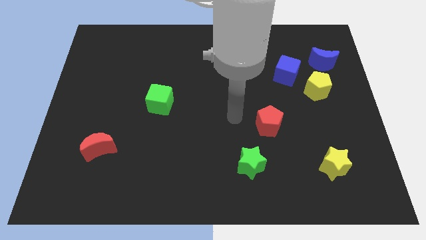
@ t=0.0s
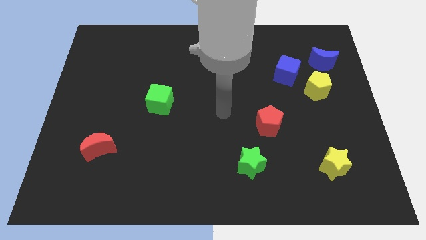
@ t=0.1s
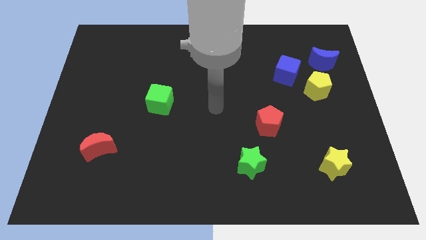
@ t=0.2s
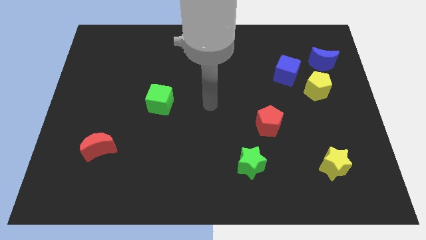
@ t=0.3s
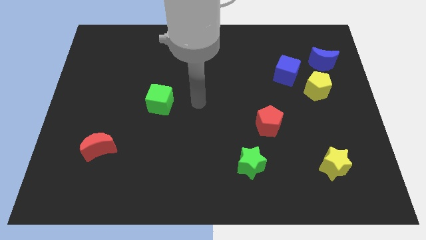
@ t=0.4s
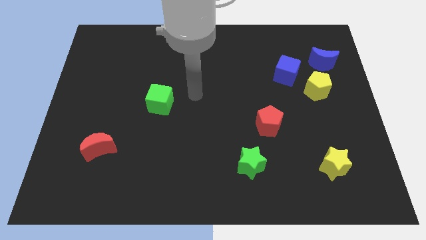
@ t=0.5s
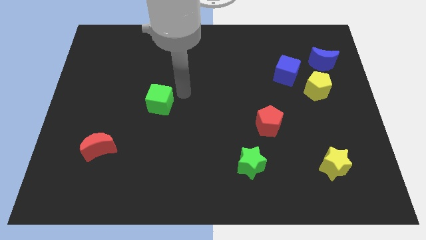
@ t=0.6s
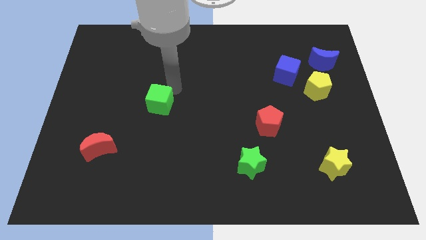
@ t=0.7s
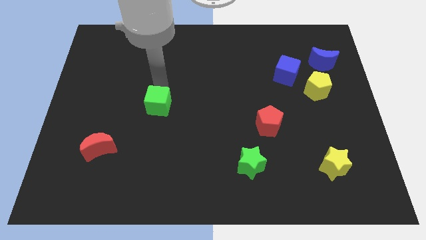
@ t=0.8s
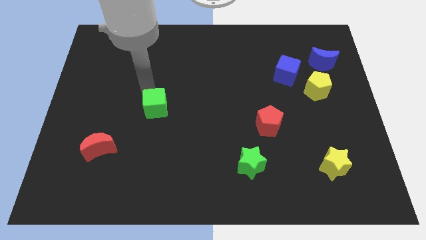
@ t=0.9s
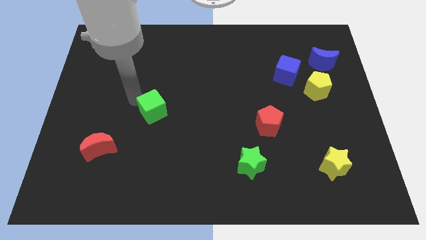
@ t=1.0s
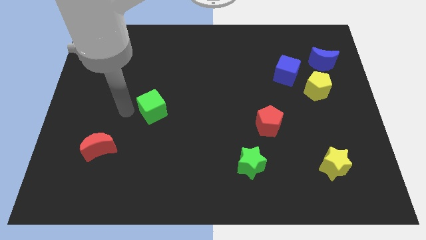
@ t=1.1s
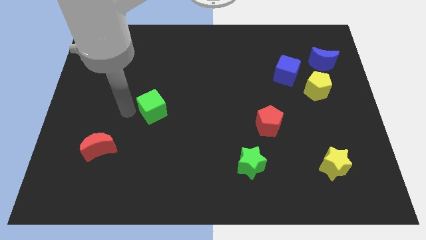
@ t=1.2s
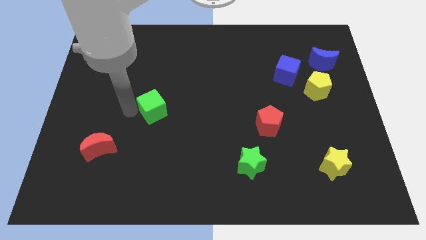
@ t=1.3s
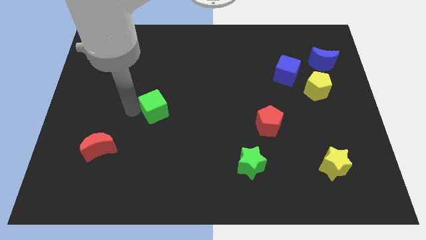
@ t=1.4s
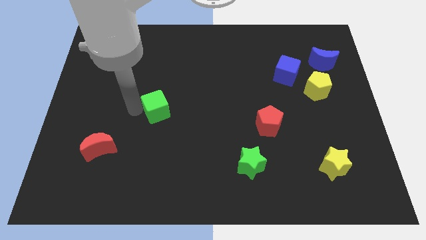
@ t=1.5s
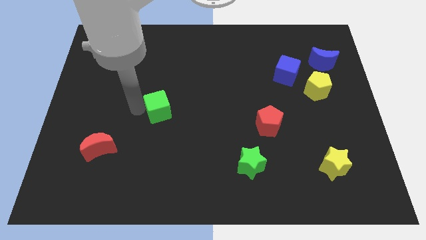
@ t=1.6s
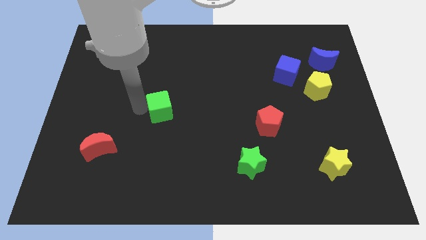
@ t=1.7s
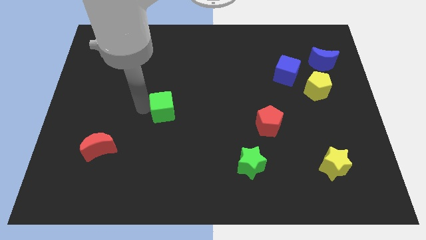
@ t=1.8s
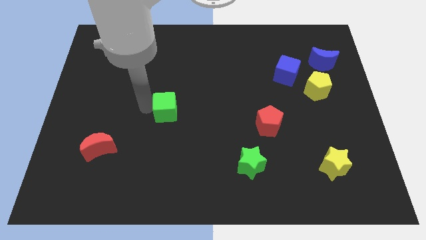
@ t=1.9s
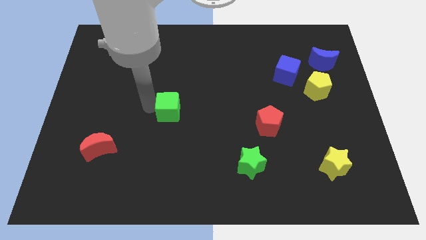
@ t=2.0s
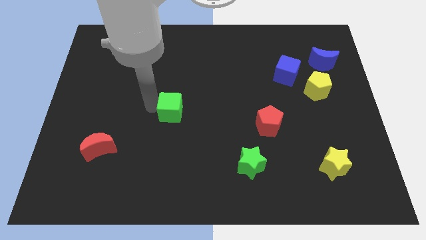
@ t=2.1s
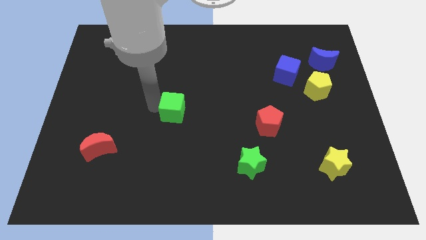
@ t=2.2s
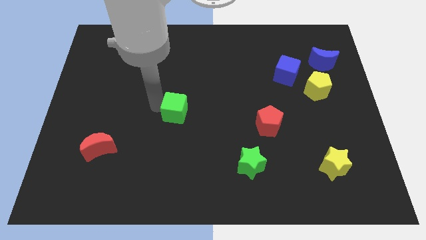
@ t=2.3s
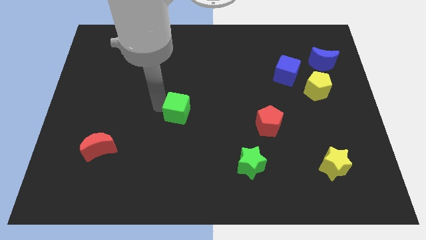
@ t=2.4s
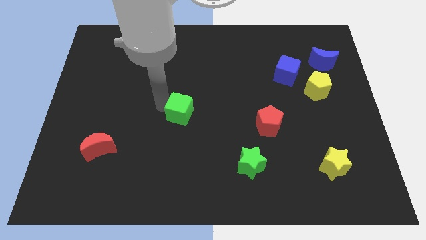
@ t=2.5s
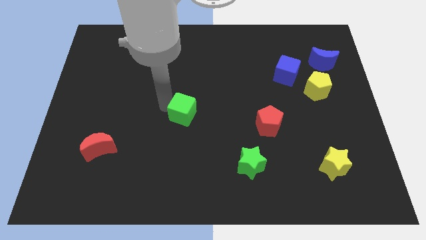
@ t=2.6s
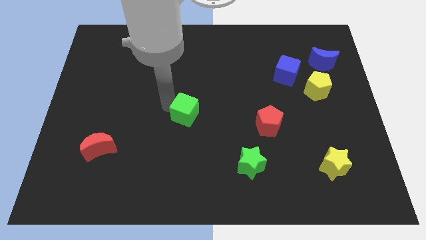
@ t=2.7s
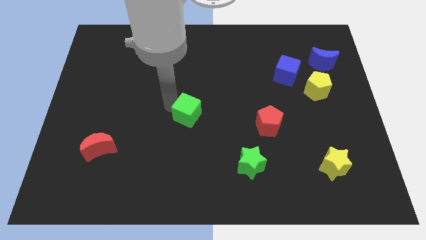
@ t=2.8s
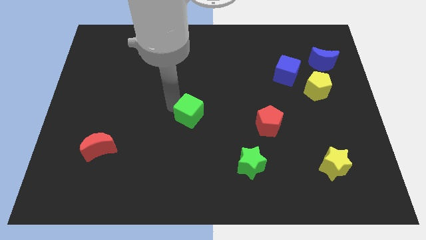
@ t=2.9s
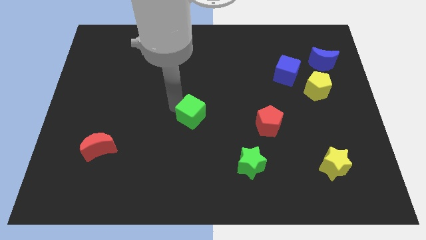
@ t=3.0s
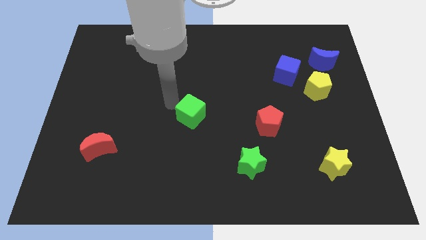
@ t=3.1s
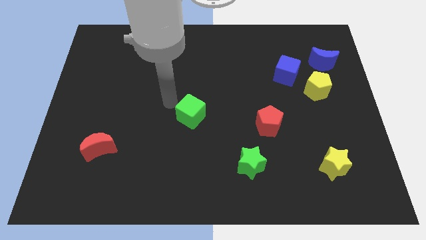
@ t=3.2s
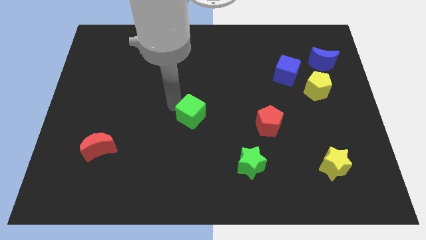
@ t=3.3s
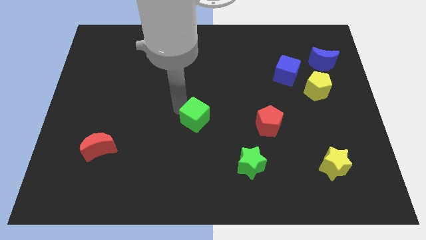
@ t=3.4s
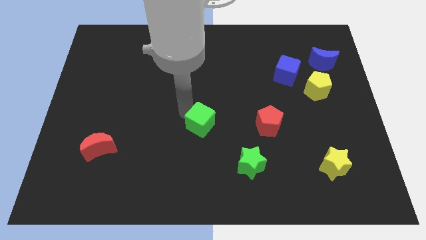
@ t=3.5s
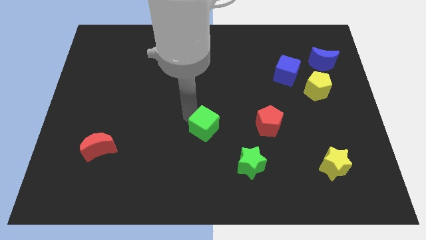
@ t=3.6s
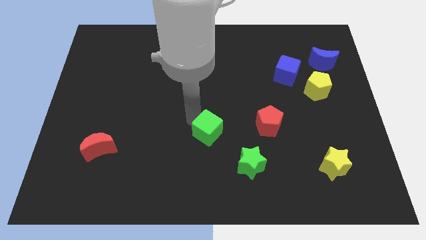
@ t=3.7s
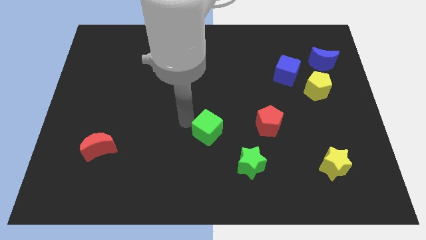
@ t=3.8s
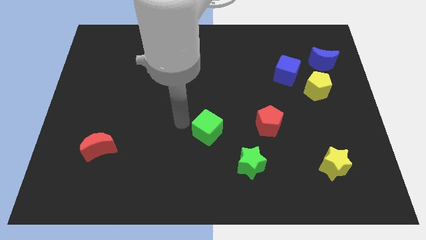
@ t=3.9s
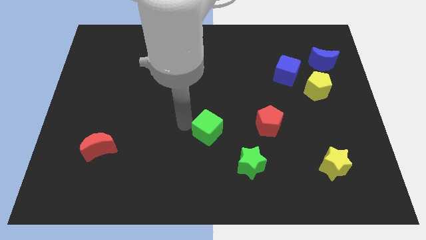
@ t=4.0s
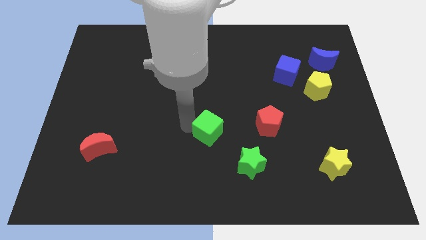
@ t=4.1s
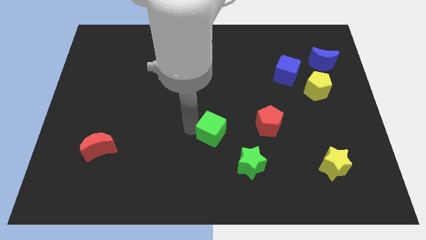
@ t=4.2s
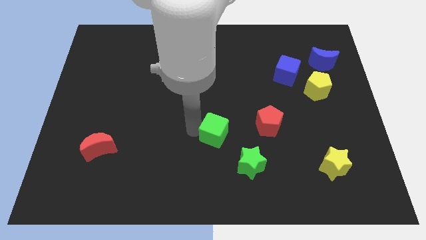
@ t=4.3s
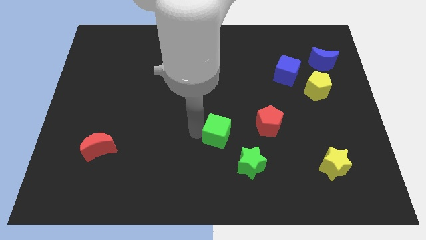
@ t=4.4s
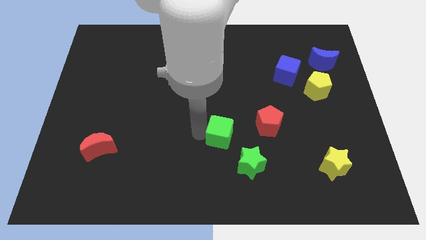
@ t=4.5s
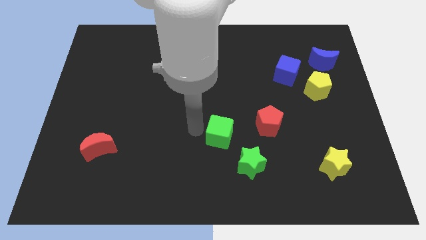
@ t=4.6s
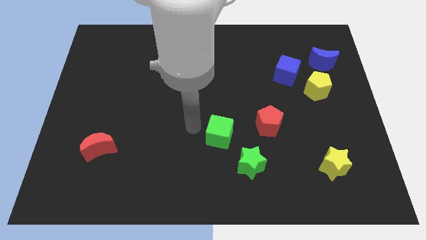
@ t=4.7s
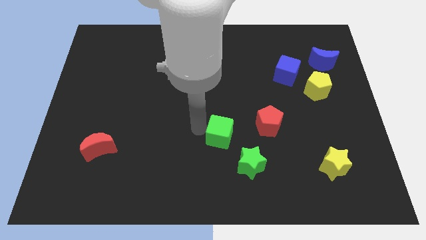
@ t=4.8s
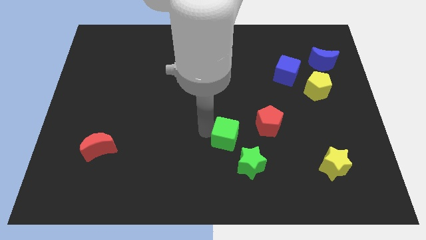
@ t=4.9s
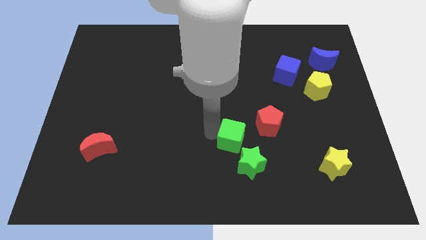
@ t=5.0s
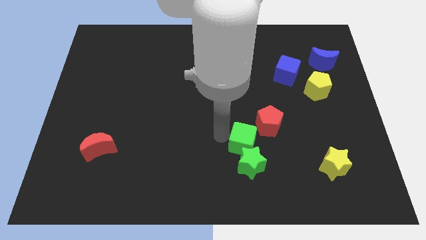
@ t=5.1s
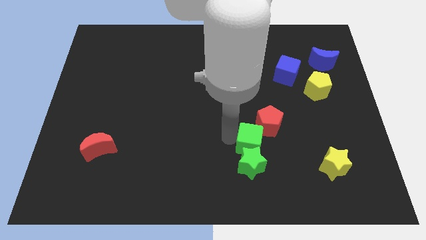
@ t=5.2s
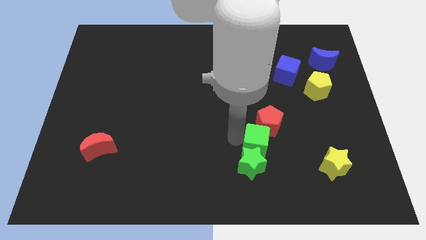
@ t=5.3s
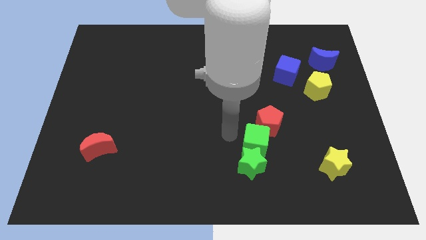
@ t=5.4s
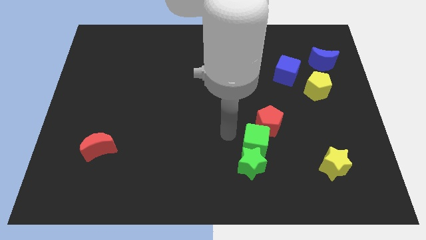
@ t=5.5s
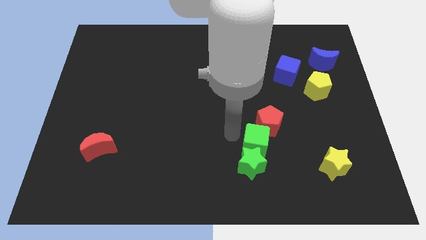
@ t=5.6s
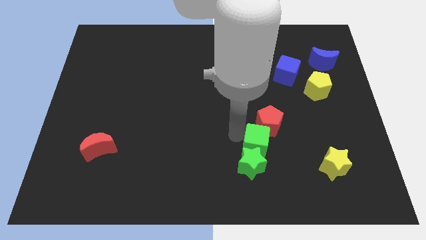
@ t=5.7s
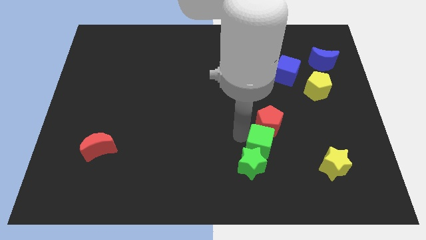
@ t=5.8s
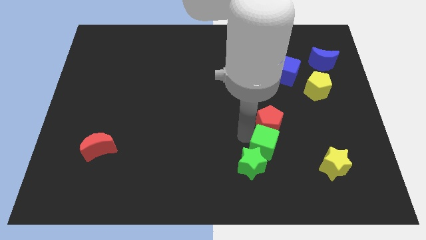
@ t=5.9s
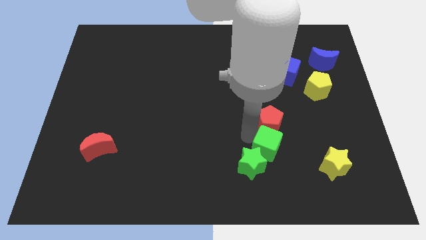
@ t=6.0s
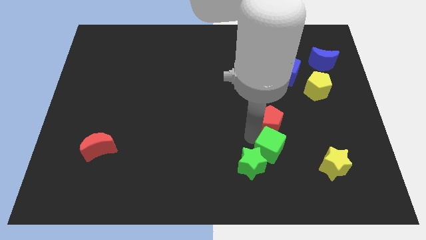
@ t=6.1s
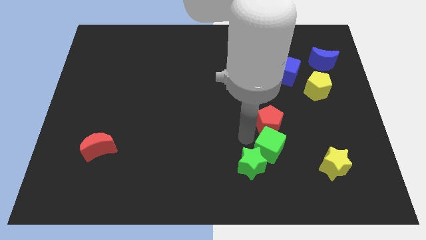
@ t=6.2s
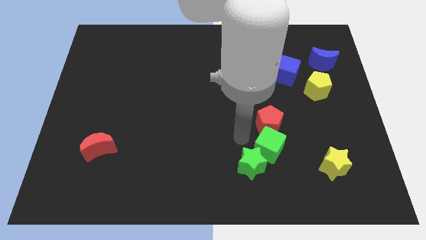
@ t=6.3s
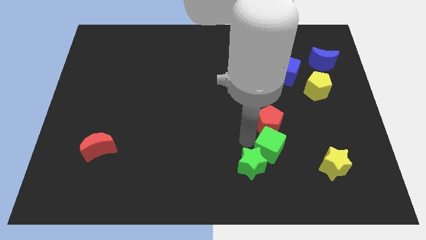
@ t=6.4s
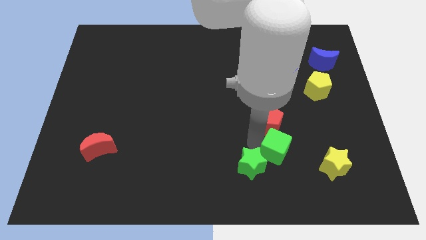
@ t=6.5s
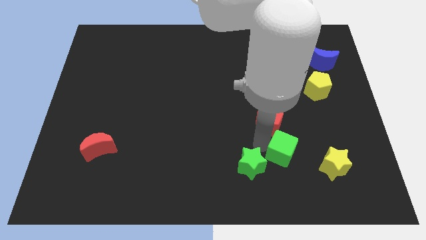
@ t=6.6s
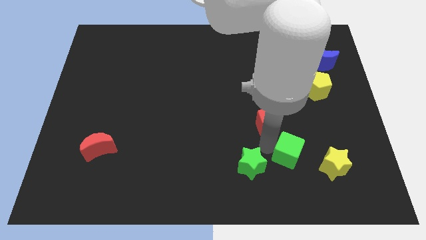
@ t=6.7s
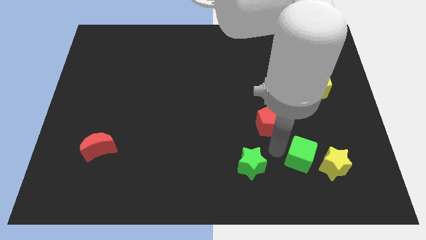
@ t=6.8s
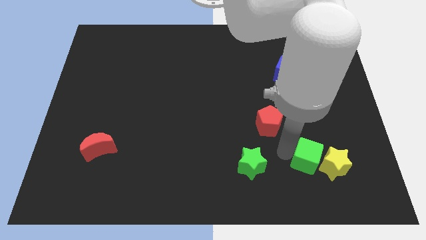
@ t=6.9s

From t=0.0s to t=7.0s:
move the green cube next to the yellow star

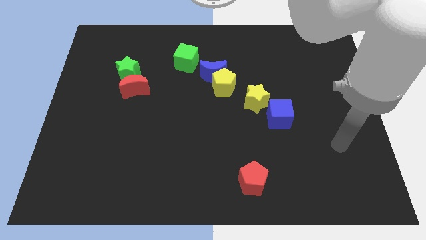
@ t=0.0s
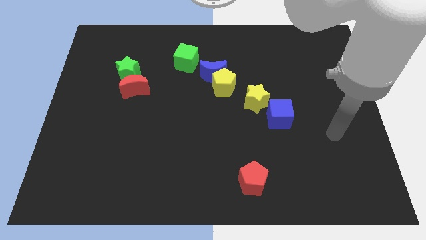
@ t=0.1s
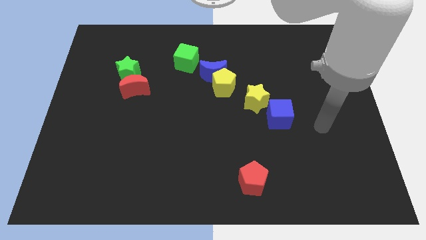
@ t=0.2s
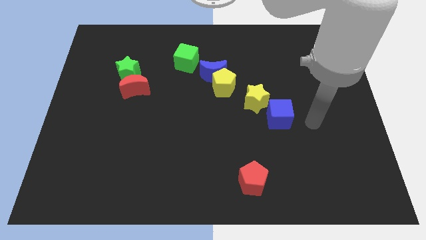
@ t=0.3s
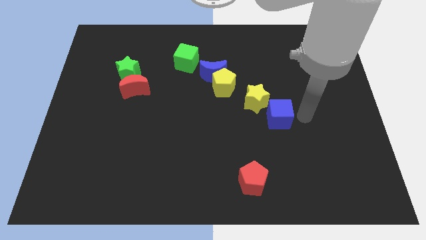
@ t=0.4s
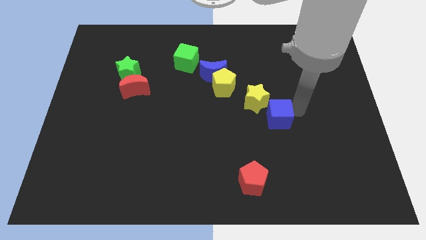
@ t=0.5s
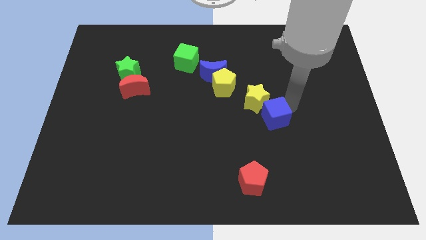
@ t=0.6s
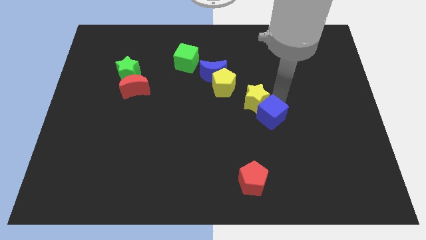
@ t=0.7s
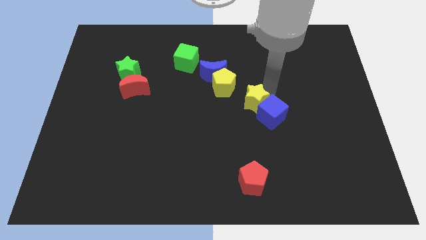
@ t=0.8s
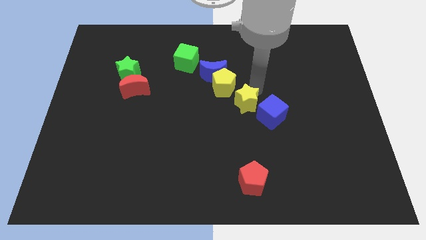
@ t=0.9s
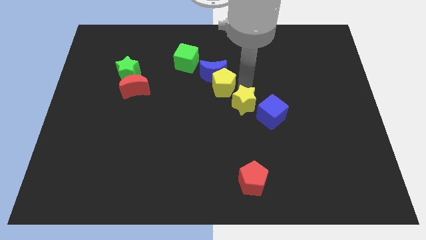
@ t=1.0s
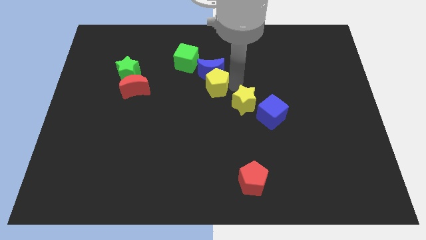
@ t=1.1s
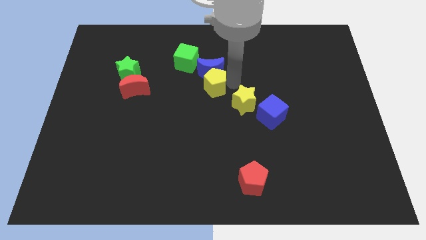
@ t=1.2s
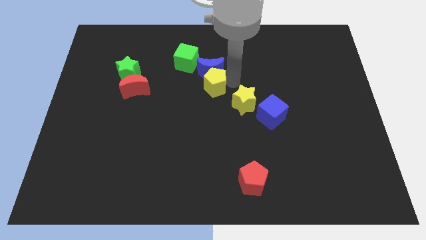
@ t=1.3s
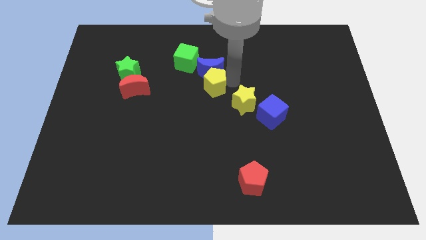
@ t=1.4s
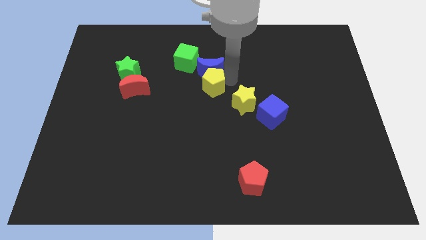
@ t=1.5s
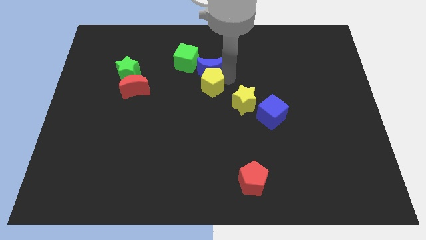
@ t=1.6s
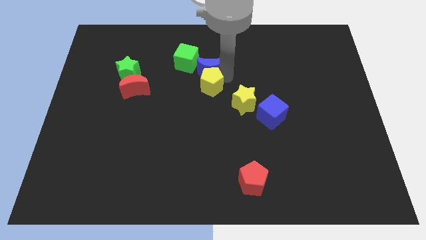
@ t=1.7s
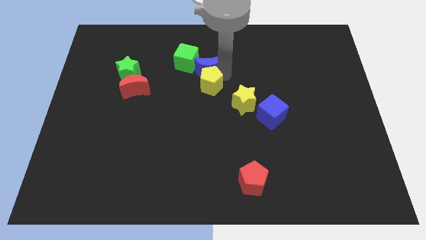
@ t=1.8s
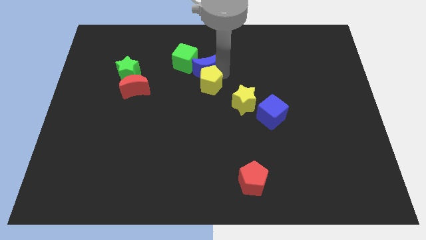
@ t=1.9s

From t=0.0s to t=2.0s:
move the blue moon to the green cube
